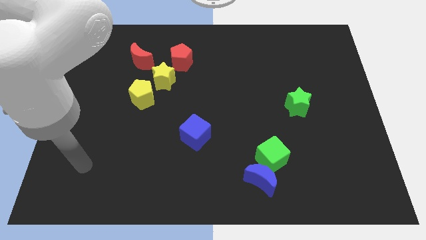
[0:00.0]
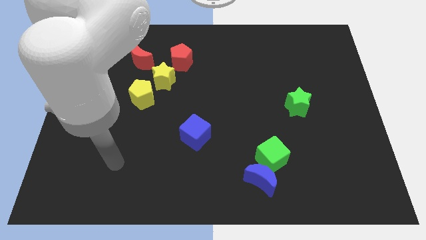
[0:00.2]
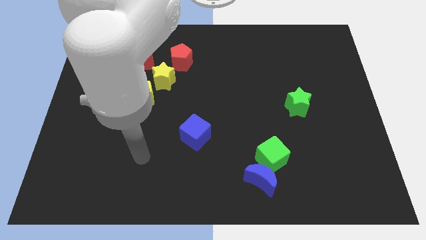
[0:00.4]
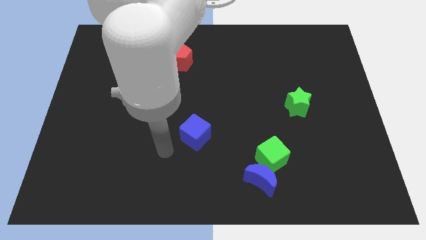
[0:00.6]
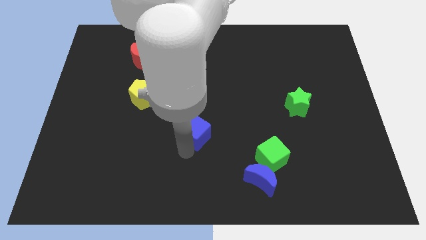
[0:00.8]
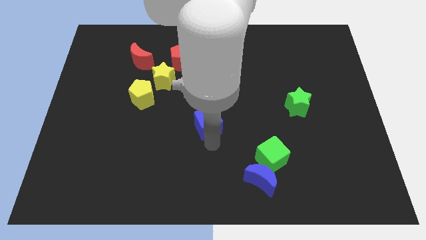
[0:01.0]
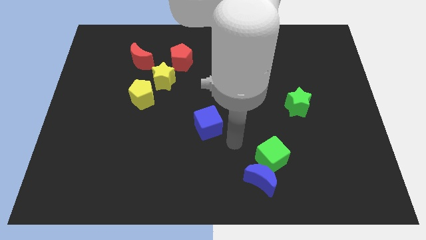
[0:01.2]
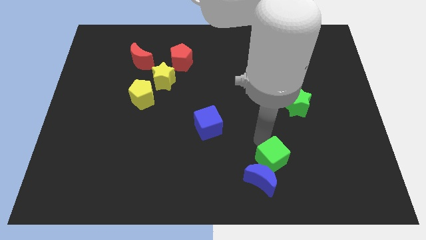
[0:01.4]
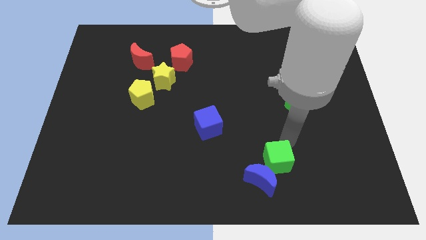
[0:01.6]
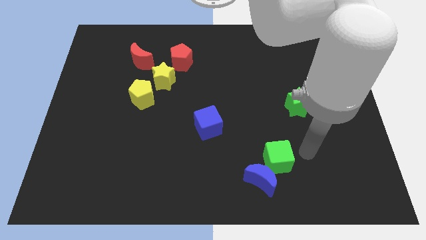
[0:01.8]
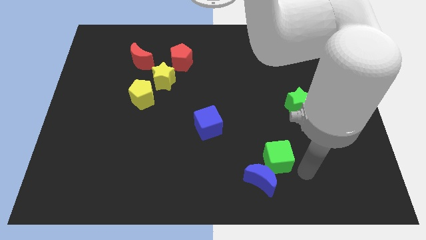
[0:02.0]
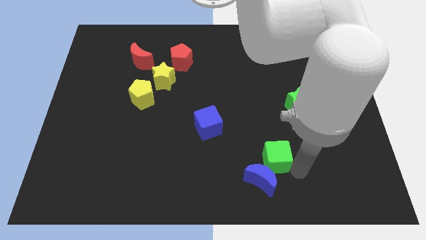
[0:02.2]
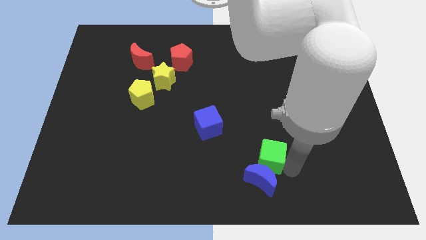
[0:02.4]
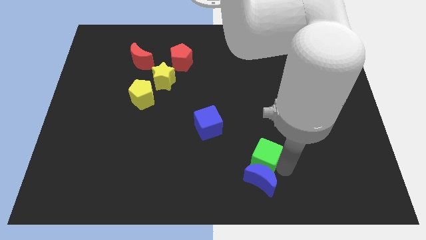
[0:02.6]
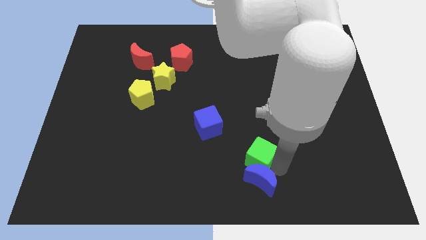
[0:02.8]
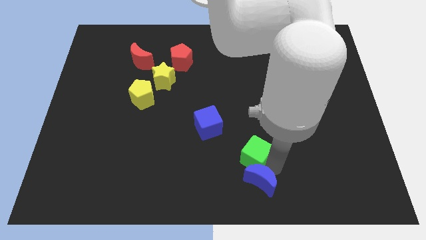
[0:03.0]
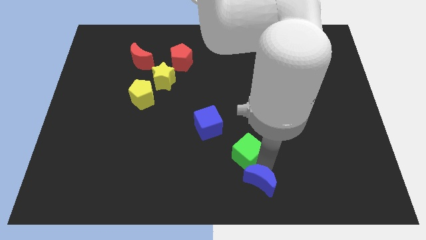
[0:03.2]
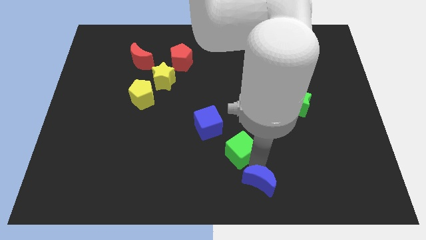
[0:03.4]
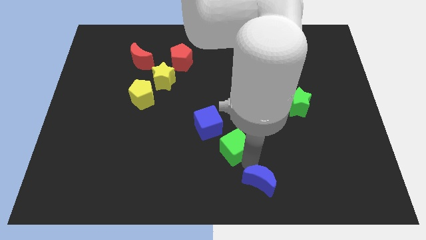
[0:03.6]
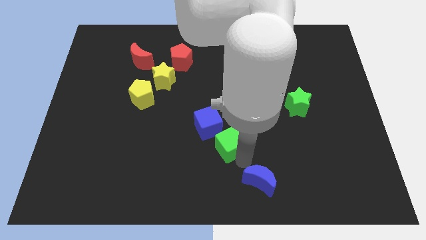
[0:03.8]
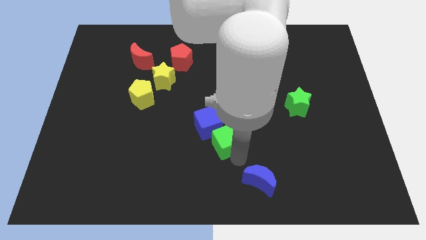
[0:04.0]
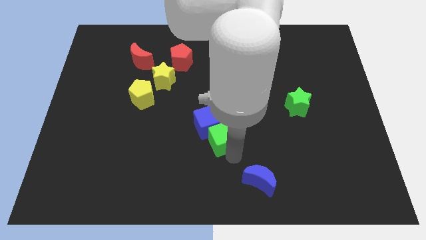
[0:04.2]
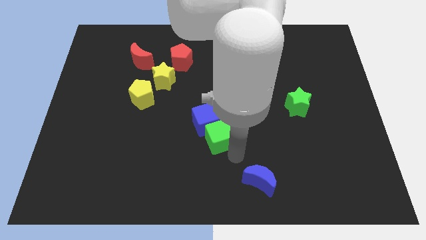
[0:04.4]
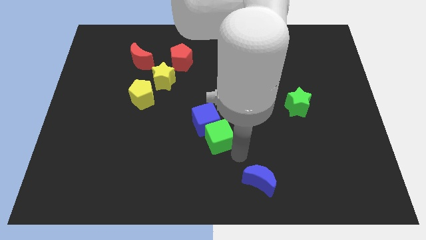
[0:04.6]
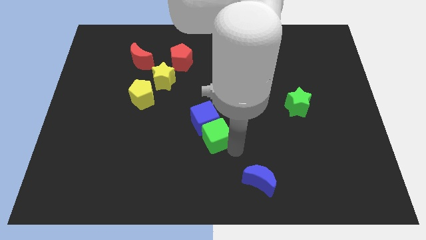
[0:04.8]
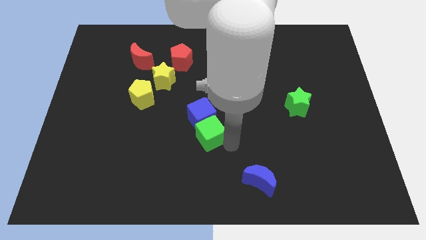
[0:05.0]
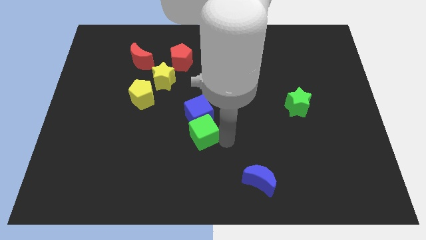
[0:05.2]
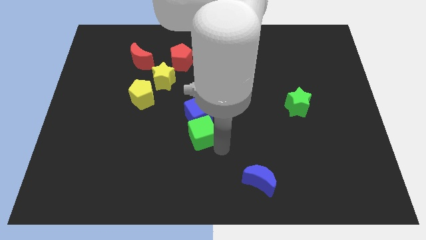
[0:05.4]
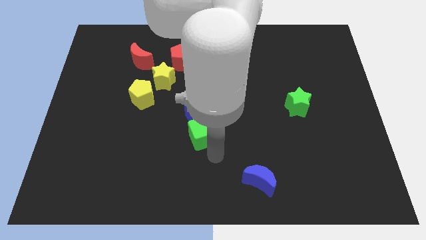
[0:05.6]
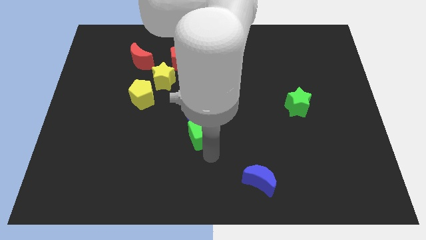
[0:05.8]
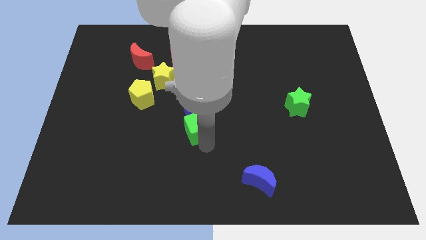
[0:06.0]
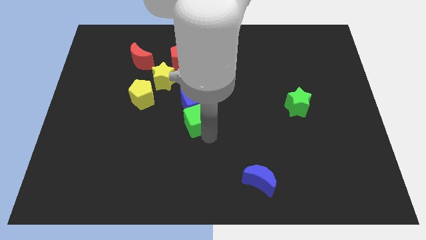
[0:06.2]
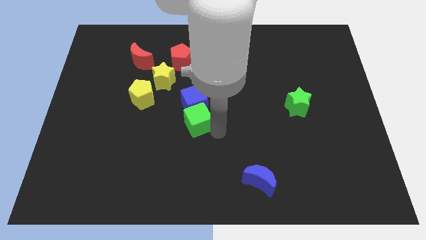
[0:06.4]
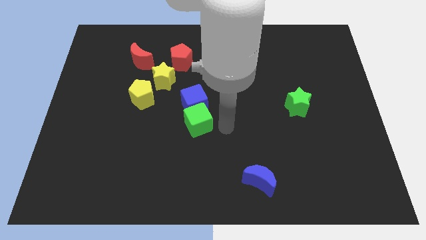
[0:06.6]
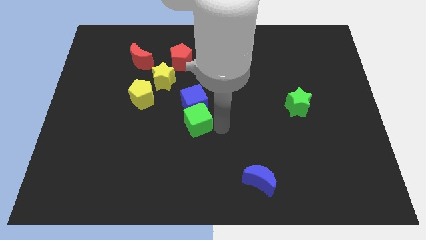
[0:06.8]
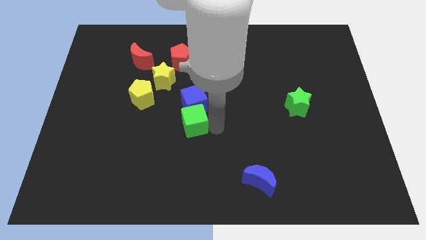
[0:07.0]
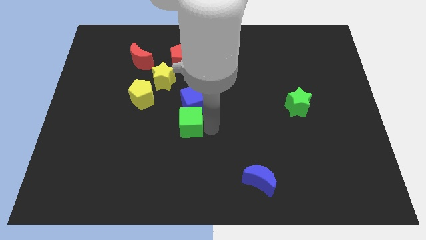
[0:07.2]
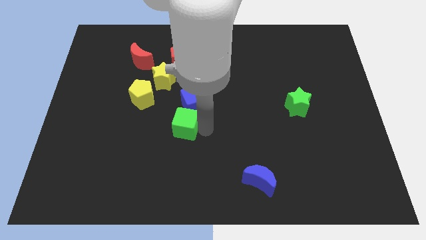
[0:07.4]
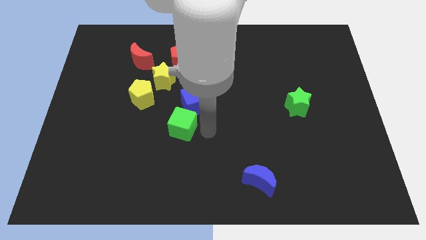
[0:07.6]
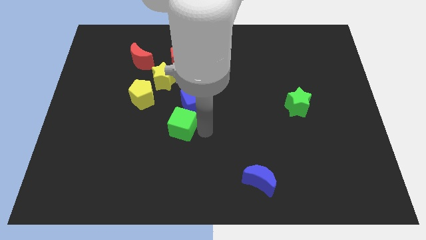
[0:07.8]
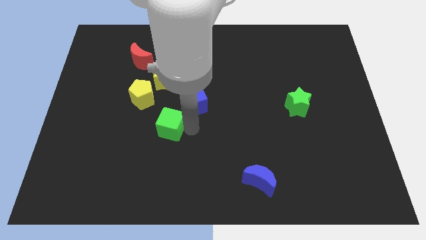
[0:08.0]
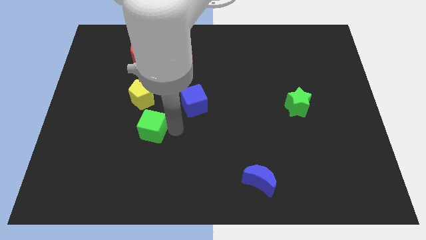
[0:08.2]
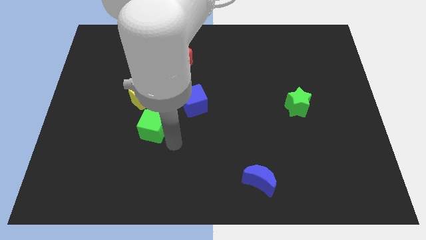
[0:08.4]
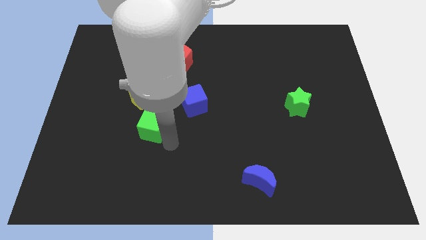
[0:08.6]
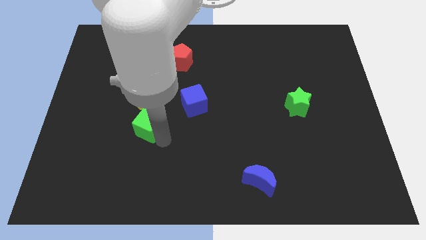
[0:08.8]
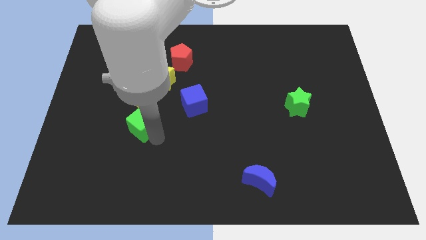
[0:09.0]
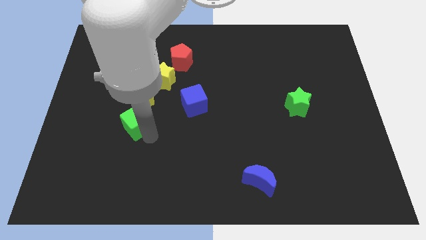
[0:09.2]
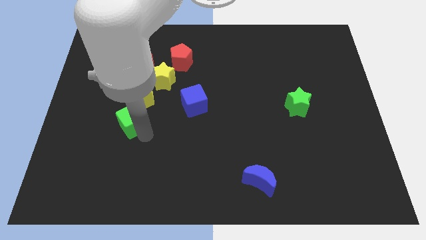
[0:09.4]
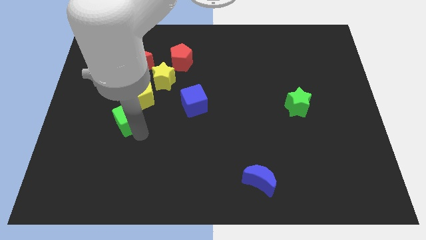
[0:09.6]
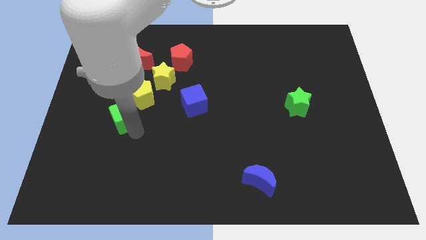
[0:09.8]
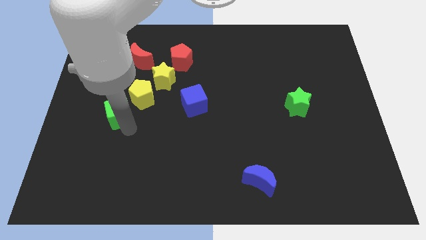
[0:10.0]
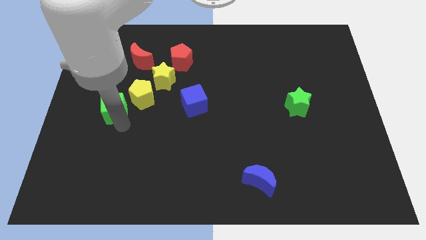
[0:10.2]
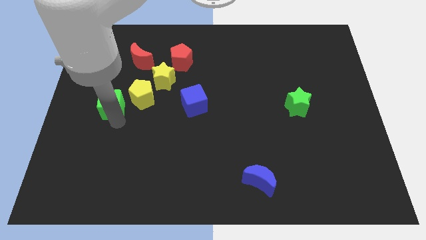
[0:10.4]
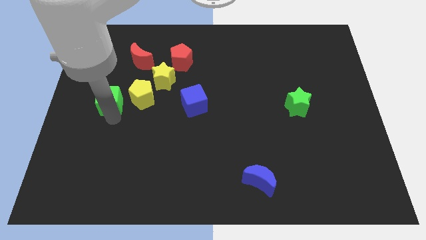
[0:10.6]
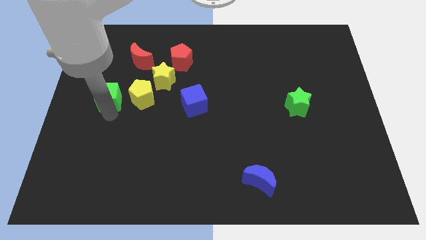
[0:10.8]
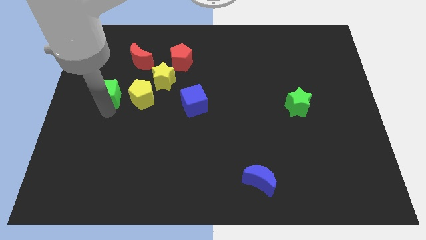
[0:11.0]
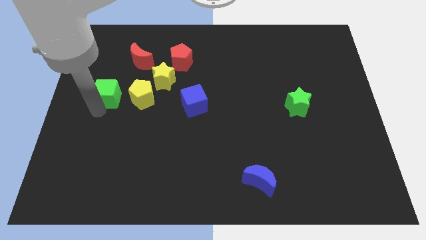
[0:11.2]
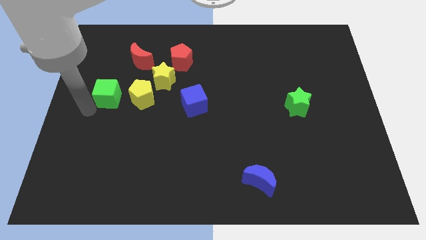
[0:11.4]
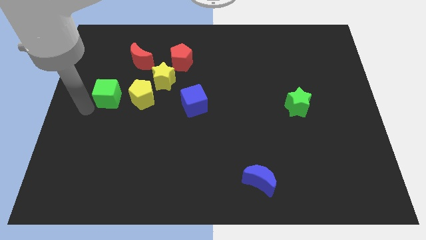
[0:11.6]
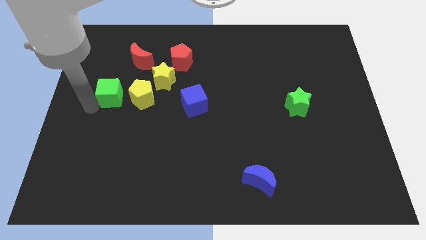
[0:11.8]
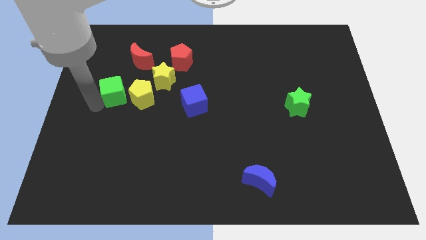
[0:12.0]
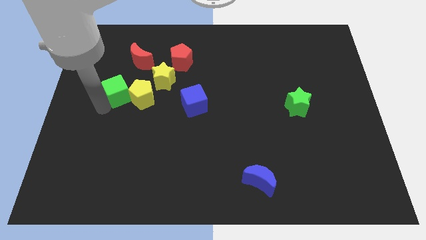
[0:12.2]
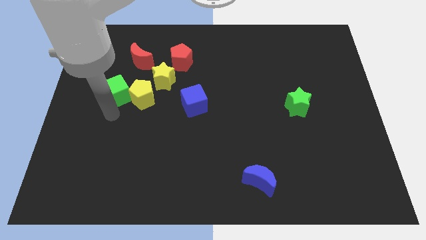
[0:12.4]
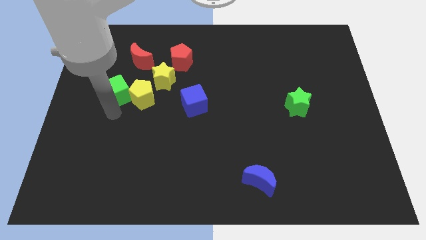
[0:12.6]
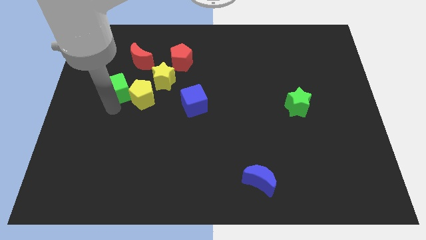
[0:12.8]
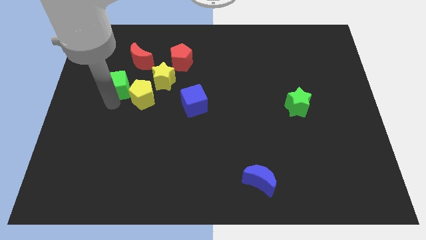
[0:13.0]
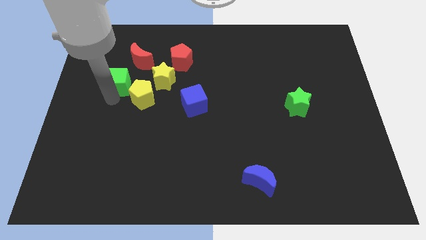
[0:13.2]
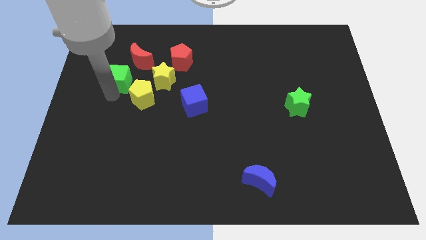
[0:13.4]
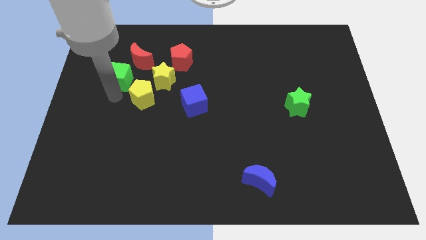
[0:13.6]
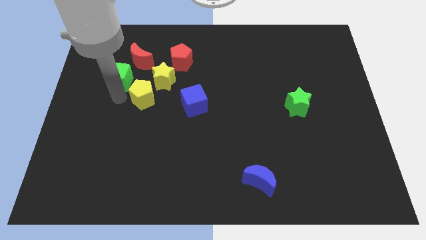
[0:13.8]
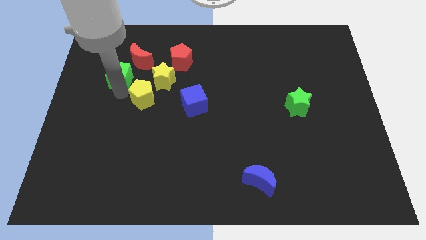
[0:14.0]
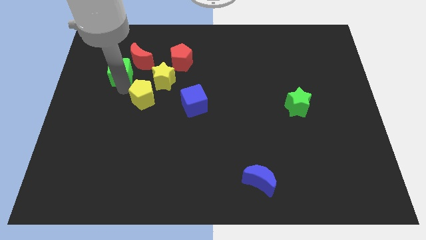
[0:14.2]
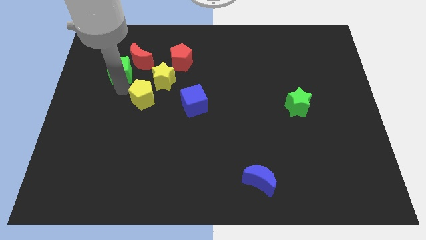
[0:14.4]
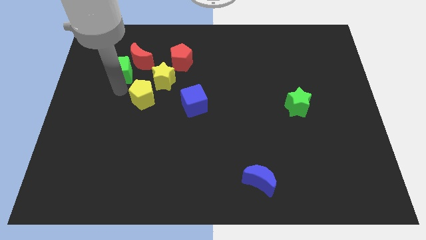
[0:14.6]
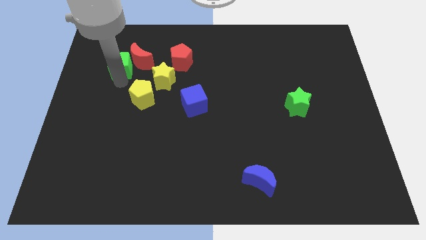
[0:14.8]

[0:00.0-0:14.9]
slide the green cube just left of the red pentagon

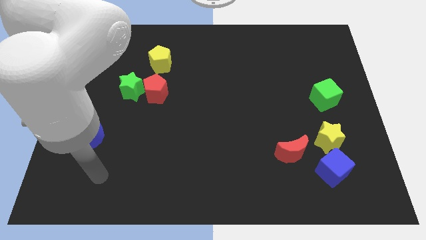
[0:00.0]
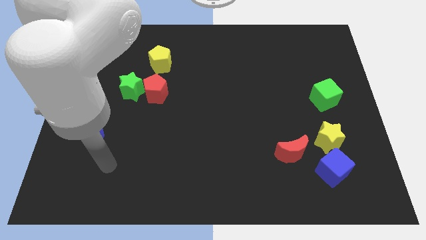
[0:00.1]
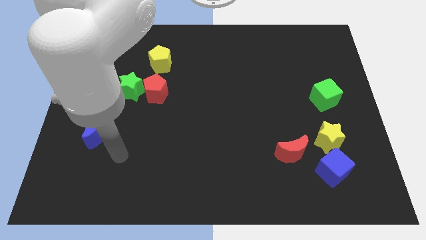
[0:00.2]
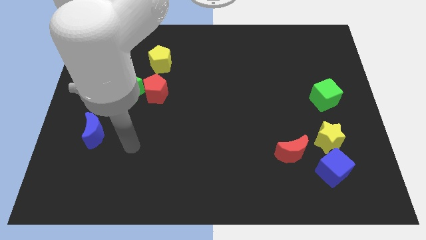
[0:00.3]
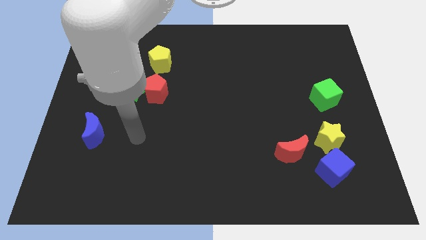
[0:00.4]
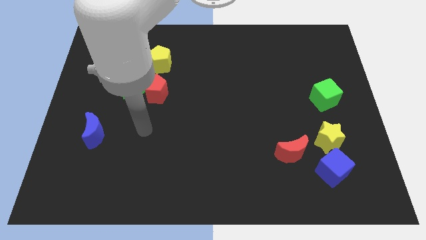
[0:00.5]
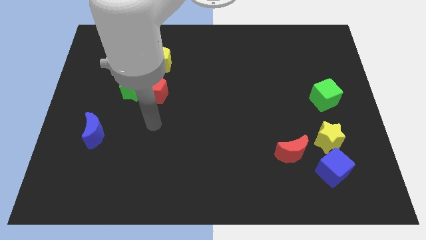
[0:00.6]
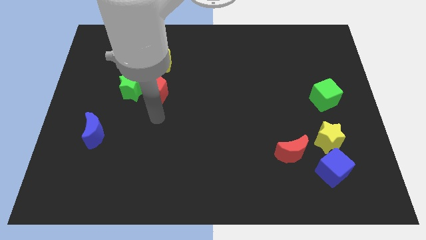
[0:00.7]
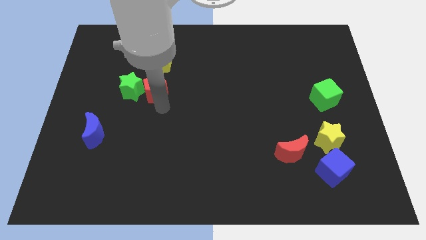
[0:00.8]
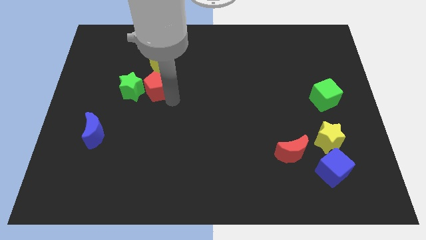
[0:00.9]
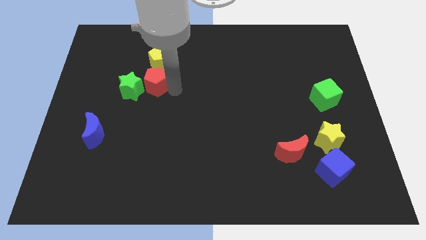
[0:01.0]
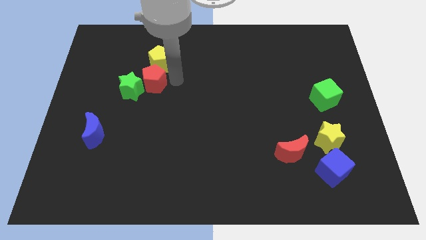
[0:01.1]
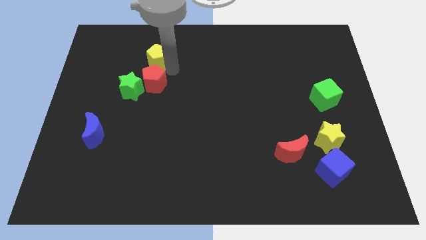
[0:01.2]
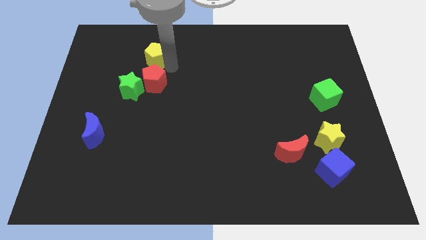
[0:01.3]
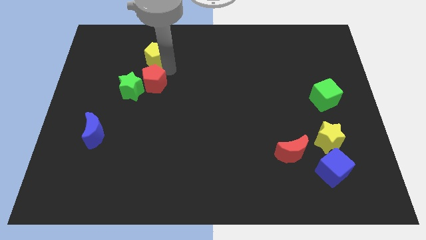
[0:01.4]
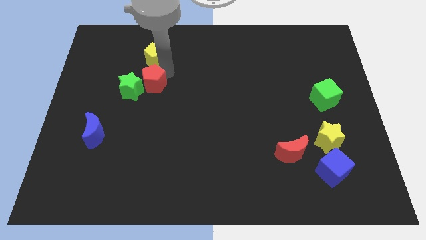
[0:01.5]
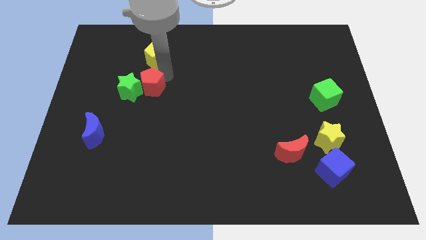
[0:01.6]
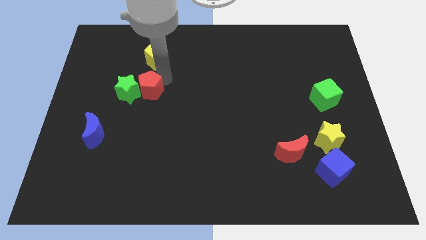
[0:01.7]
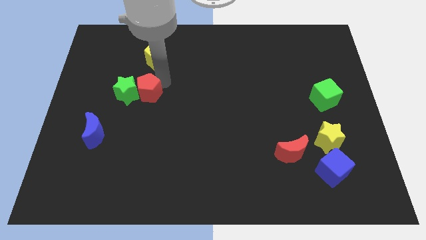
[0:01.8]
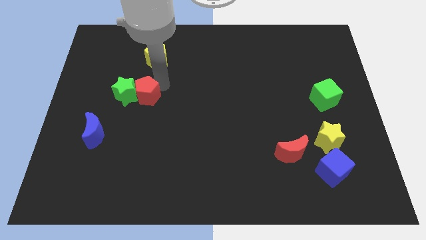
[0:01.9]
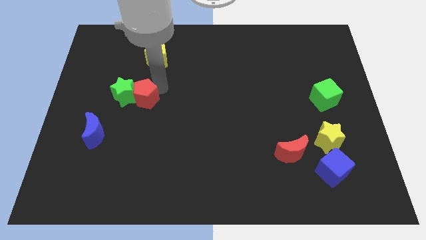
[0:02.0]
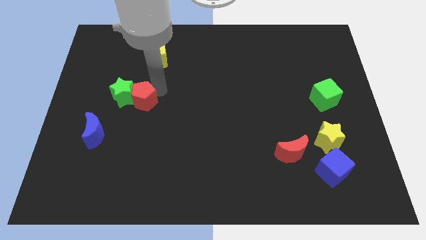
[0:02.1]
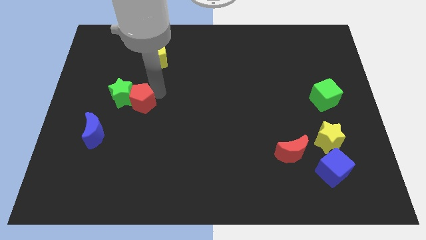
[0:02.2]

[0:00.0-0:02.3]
move the red pentagon diagonally up and to the right of the blue moon
